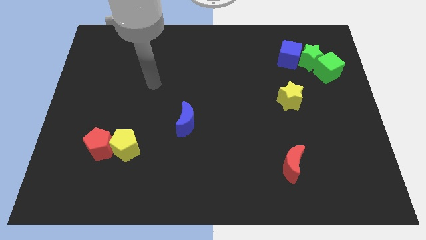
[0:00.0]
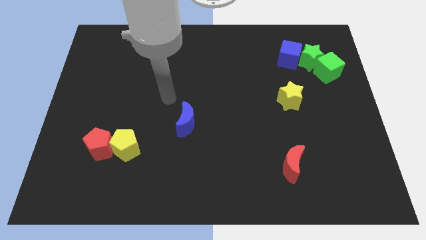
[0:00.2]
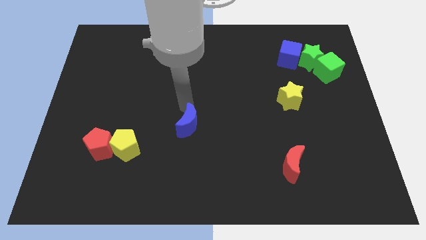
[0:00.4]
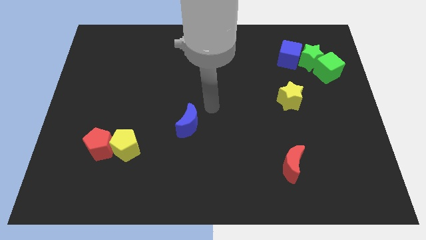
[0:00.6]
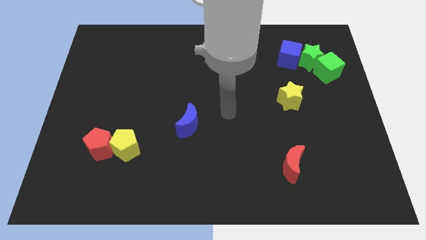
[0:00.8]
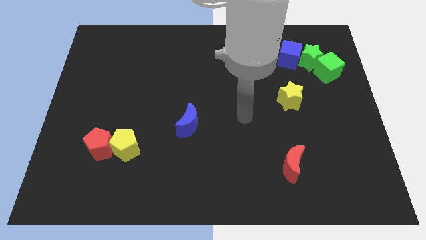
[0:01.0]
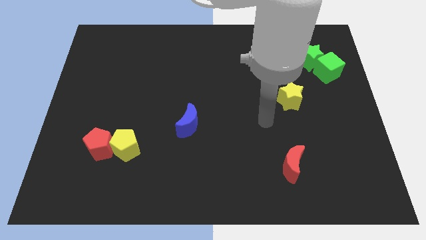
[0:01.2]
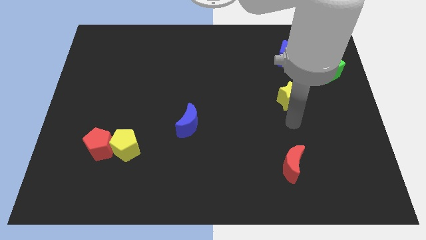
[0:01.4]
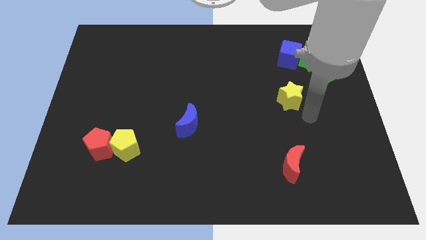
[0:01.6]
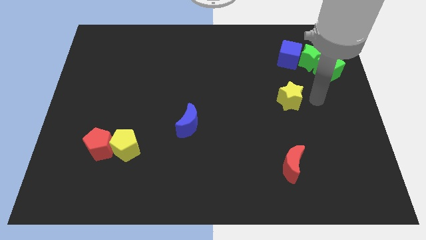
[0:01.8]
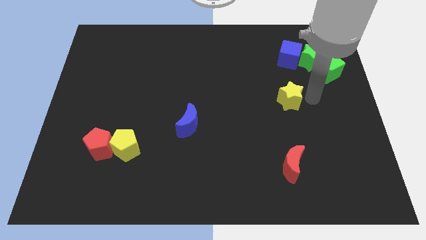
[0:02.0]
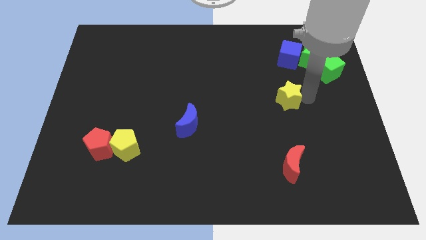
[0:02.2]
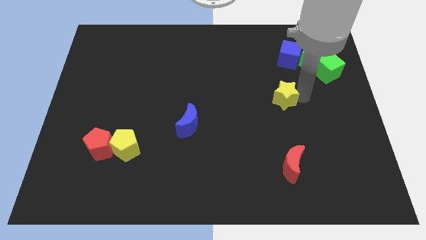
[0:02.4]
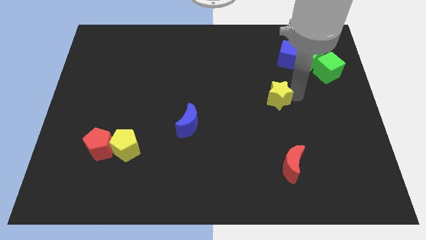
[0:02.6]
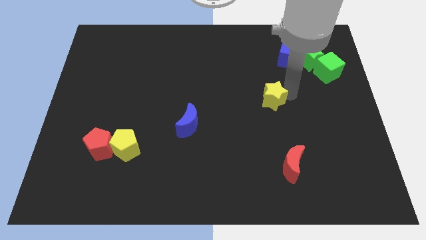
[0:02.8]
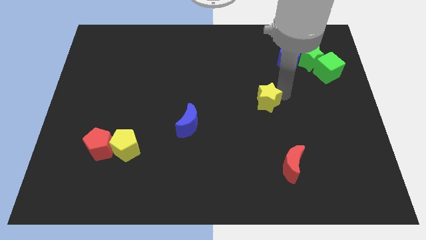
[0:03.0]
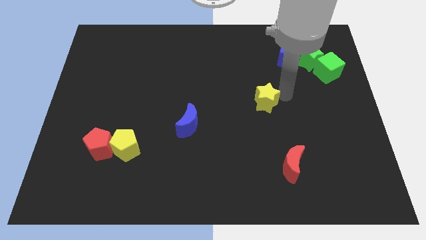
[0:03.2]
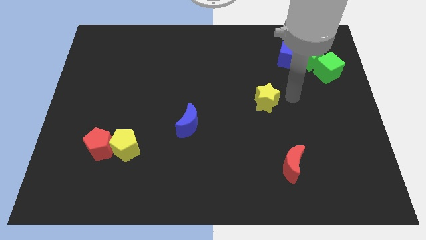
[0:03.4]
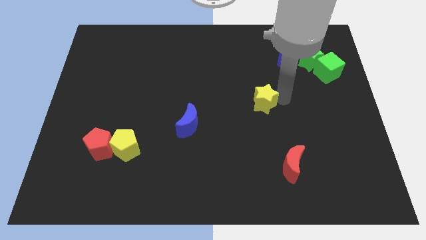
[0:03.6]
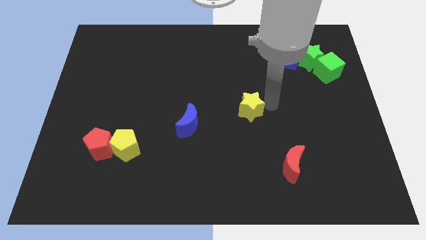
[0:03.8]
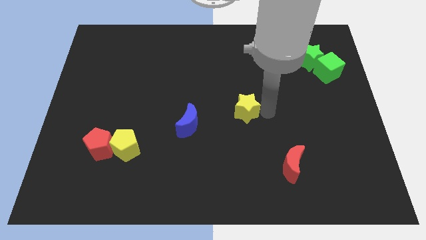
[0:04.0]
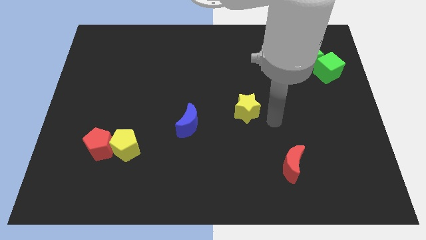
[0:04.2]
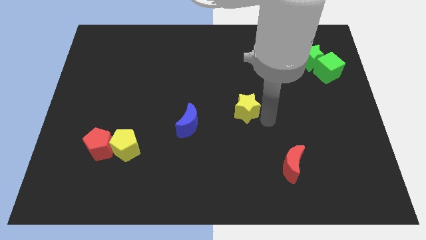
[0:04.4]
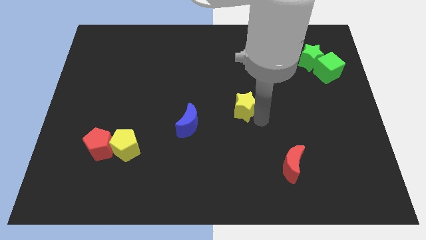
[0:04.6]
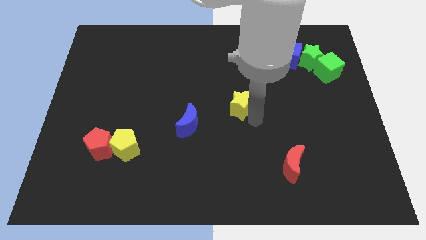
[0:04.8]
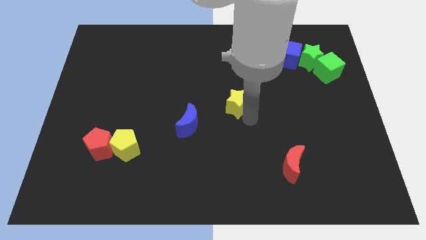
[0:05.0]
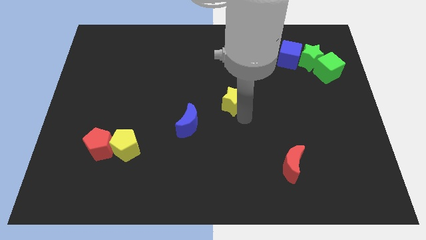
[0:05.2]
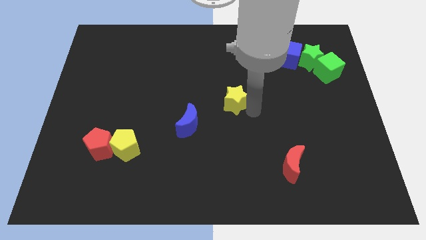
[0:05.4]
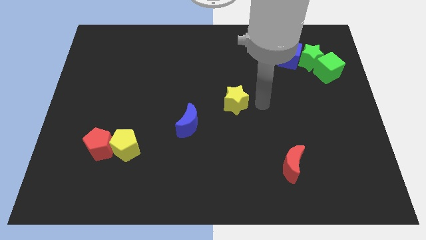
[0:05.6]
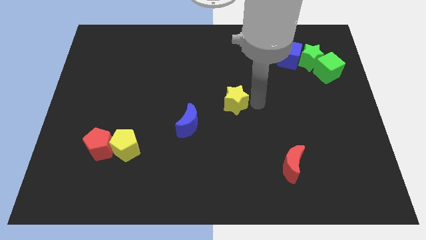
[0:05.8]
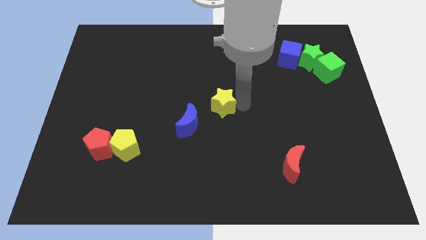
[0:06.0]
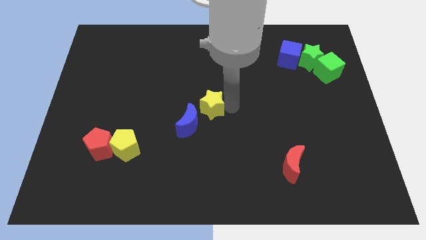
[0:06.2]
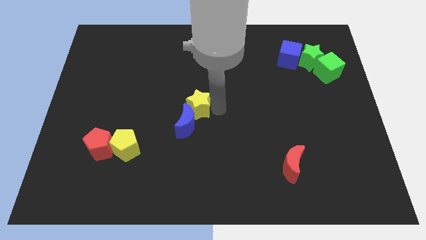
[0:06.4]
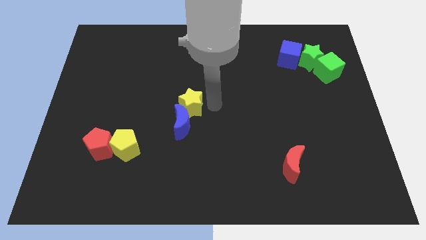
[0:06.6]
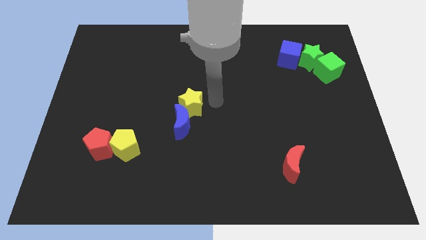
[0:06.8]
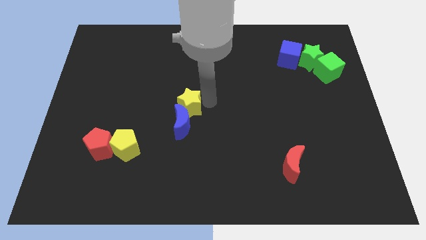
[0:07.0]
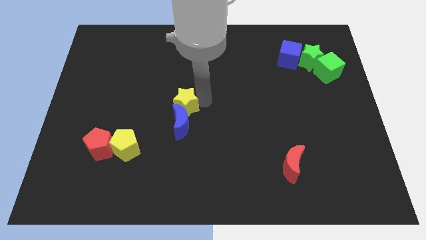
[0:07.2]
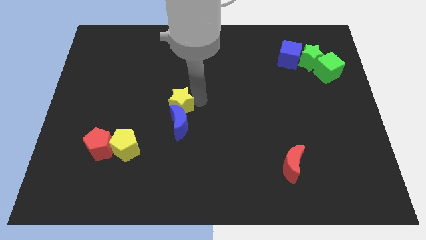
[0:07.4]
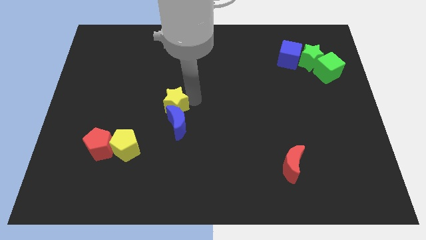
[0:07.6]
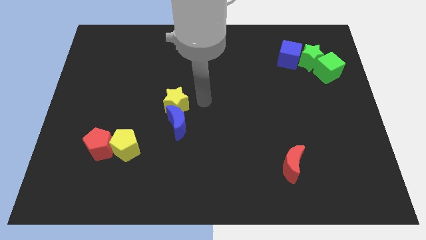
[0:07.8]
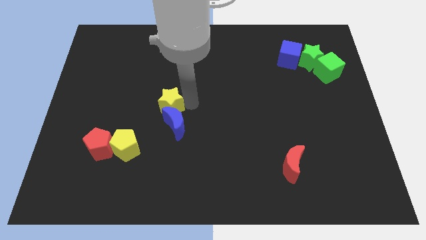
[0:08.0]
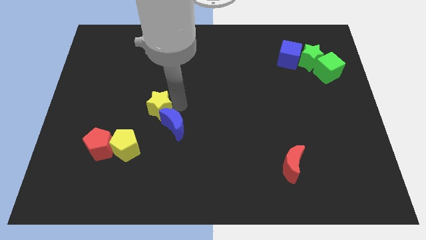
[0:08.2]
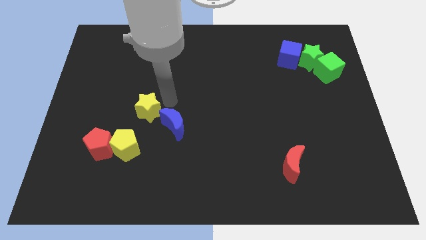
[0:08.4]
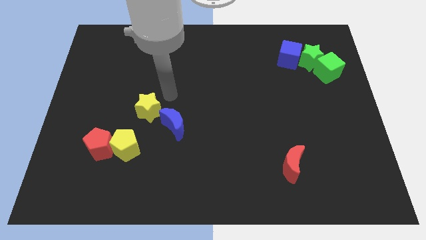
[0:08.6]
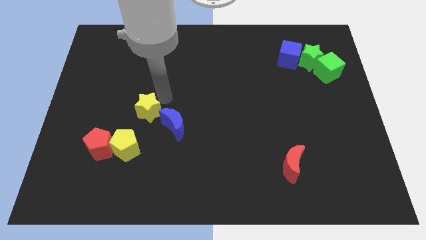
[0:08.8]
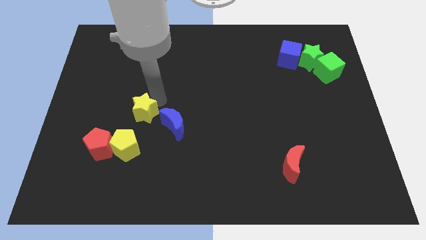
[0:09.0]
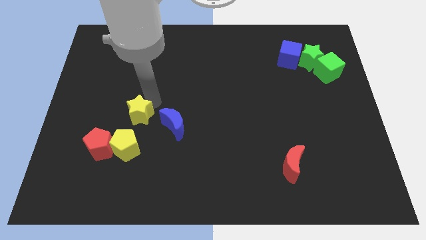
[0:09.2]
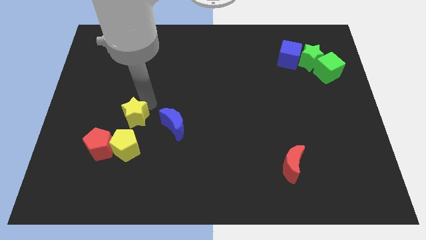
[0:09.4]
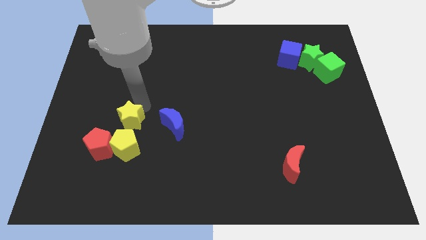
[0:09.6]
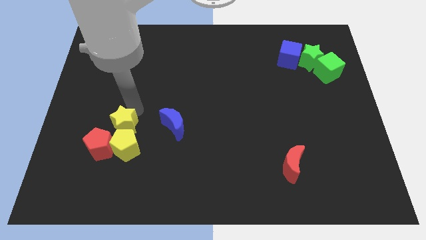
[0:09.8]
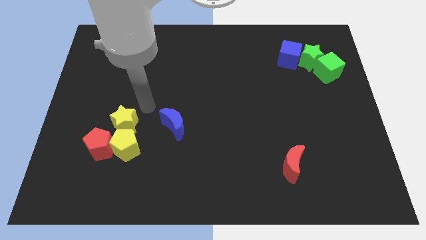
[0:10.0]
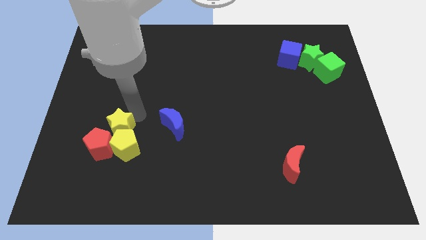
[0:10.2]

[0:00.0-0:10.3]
move the yellow star close to the red pentagon

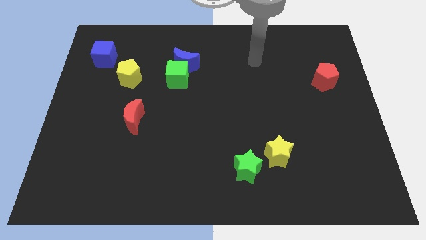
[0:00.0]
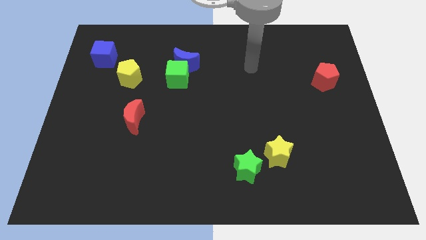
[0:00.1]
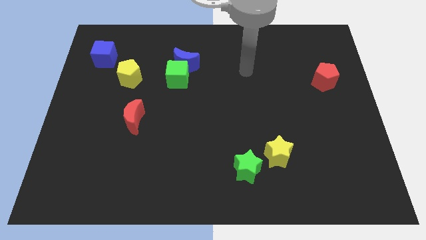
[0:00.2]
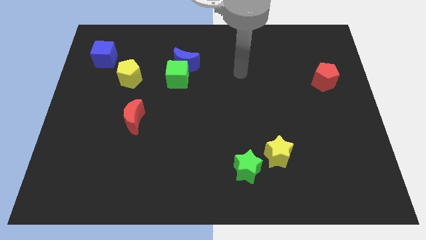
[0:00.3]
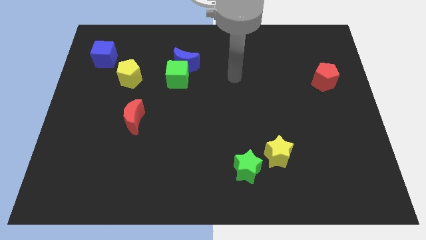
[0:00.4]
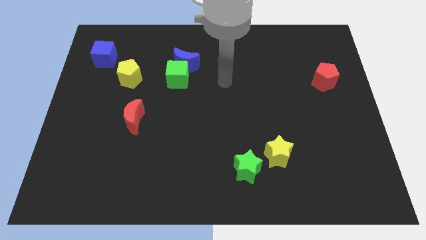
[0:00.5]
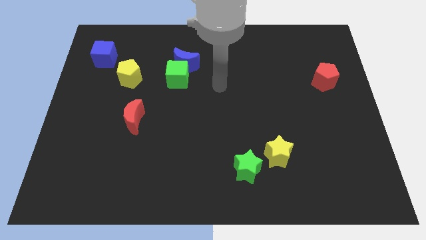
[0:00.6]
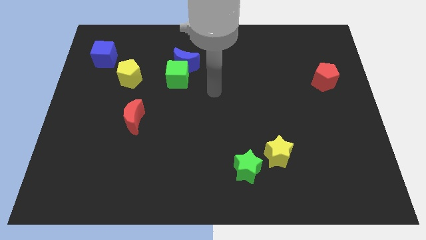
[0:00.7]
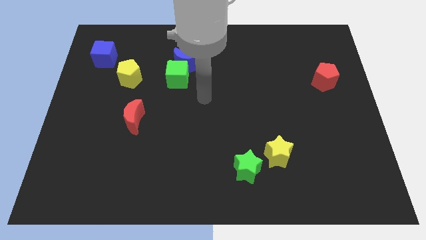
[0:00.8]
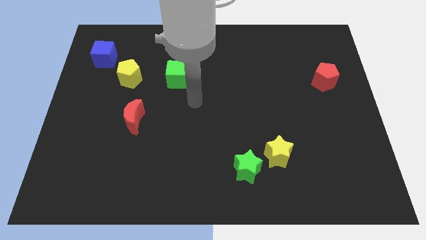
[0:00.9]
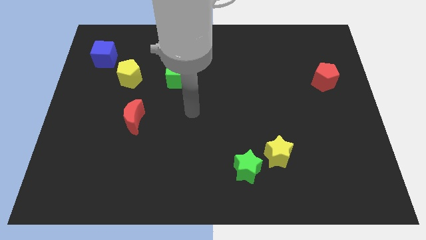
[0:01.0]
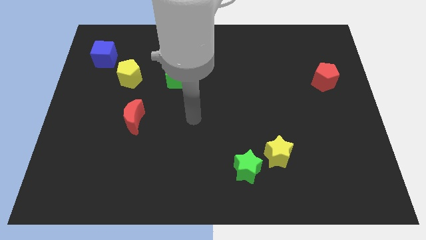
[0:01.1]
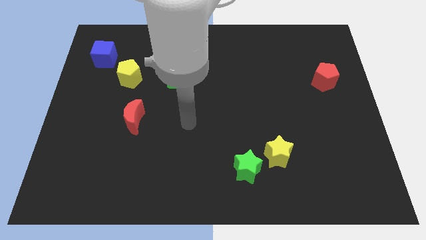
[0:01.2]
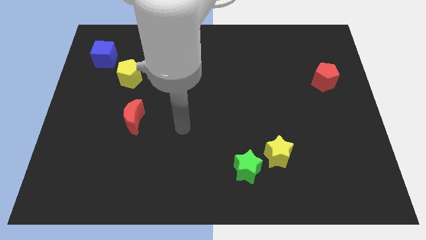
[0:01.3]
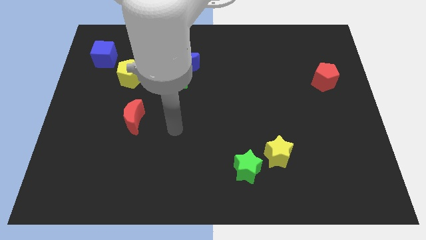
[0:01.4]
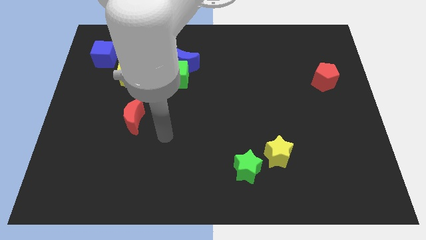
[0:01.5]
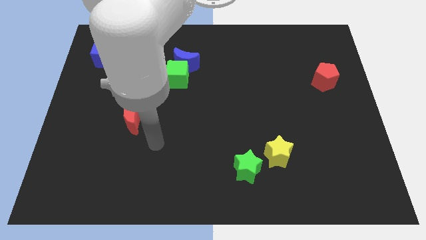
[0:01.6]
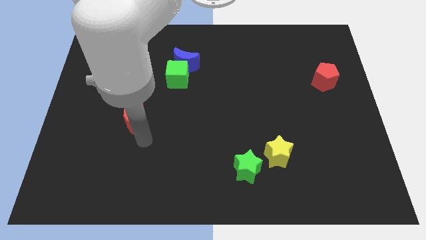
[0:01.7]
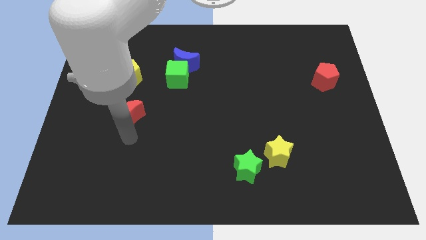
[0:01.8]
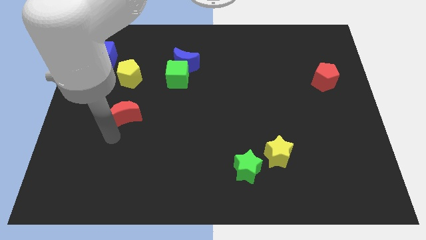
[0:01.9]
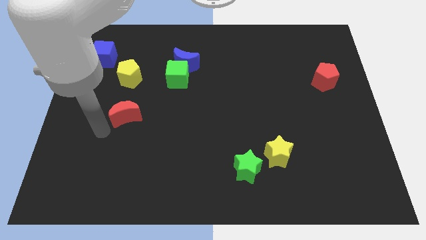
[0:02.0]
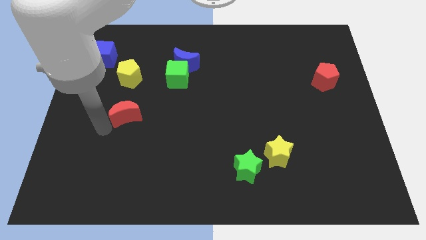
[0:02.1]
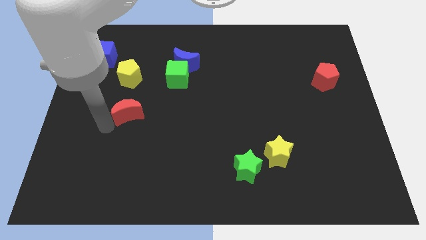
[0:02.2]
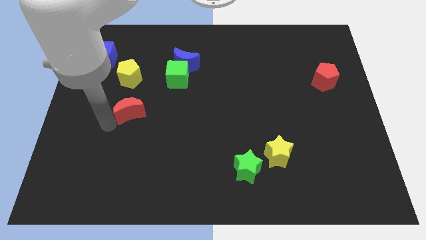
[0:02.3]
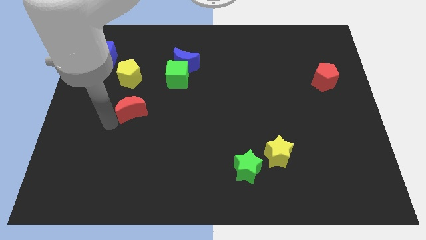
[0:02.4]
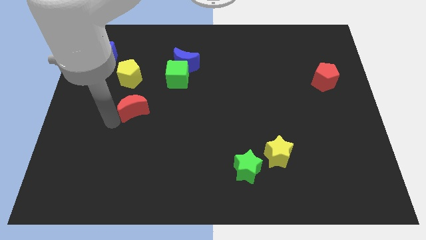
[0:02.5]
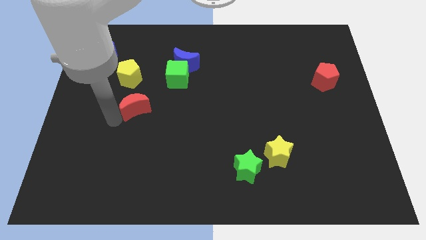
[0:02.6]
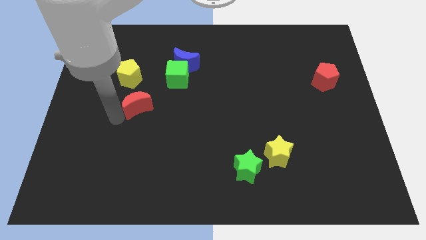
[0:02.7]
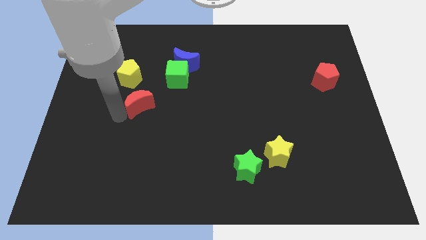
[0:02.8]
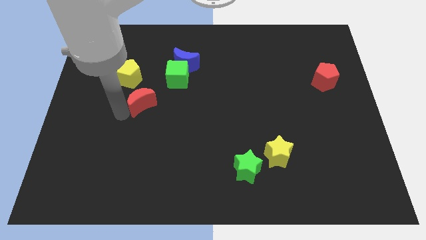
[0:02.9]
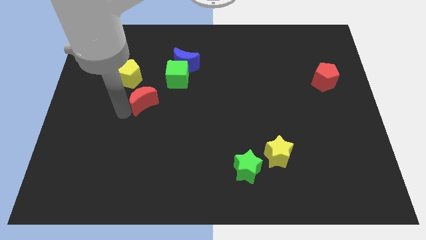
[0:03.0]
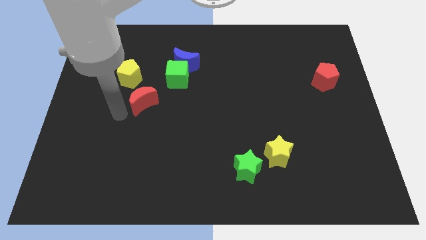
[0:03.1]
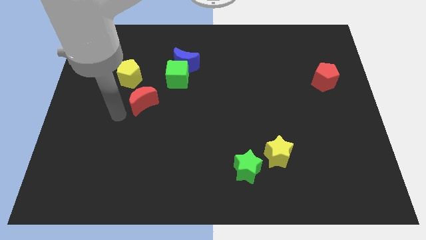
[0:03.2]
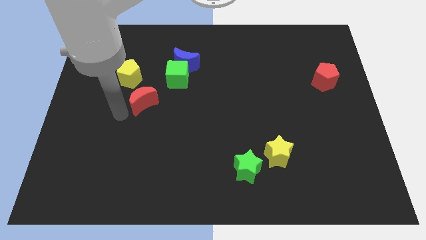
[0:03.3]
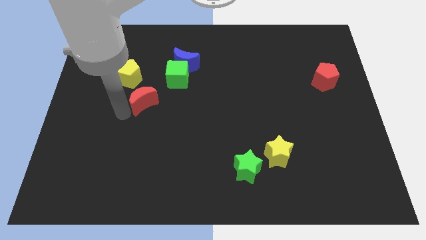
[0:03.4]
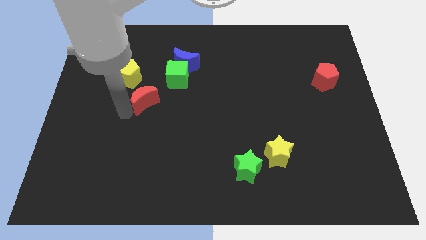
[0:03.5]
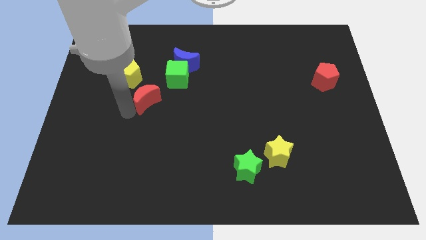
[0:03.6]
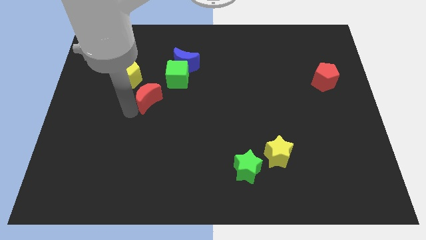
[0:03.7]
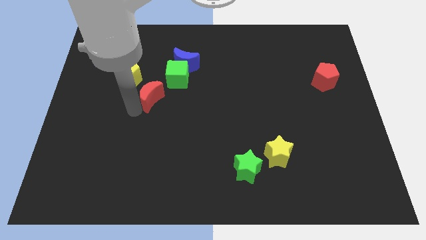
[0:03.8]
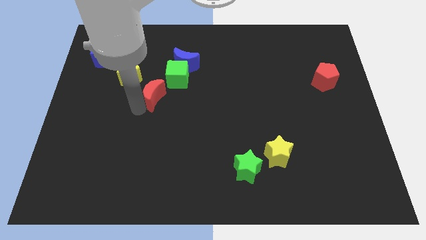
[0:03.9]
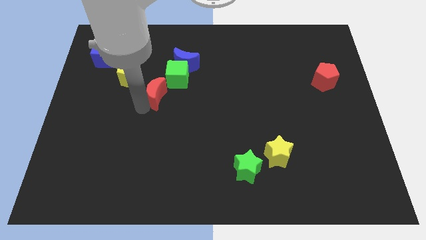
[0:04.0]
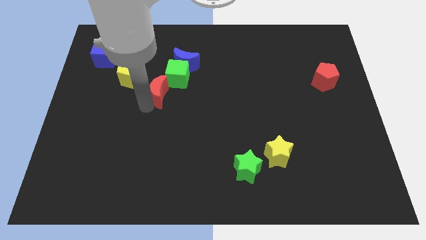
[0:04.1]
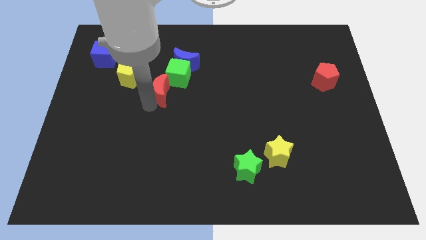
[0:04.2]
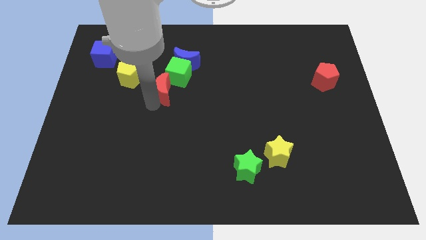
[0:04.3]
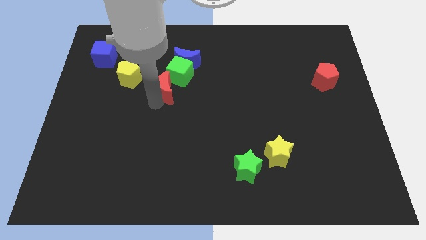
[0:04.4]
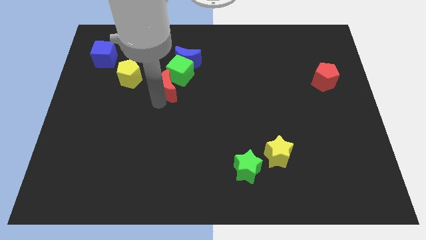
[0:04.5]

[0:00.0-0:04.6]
push the red moon close to the green cube
